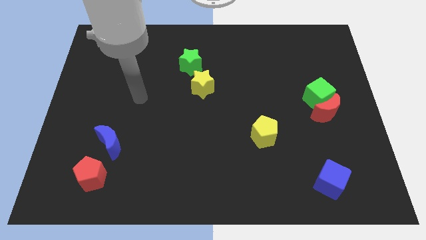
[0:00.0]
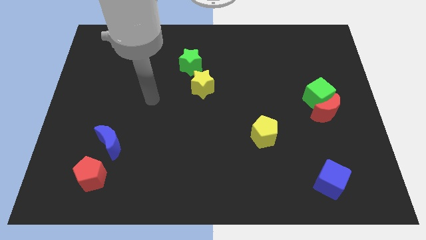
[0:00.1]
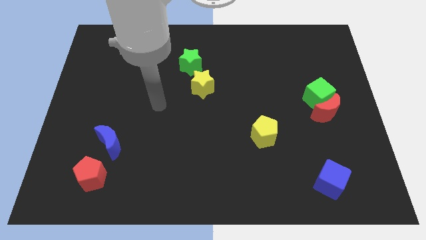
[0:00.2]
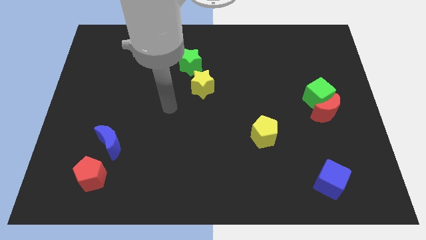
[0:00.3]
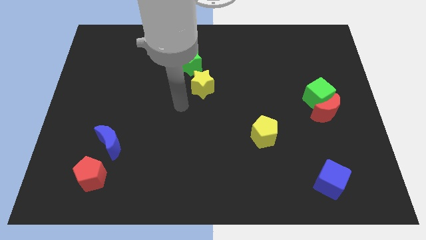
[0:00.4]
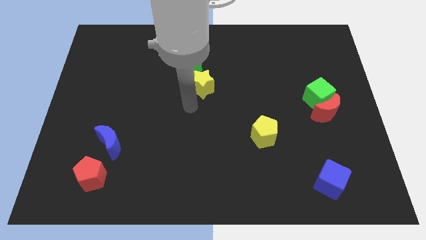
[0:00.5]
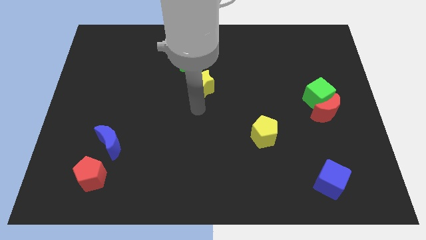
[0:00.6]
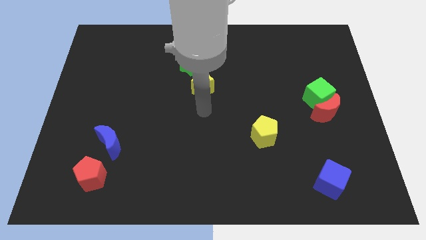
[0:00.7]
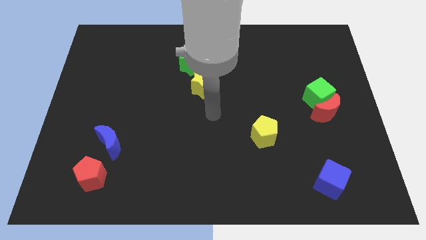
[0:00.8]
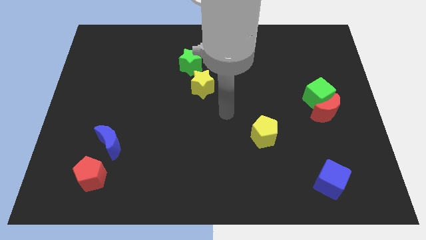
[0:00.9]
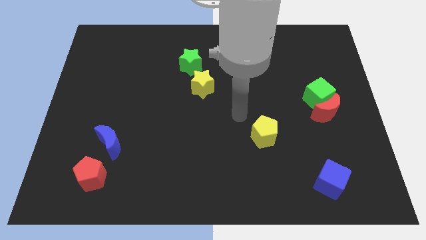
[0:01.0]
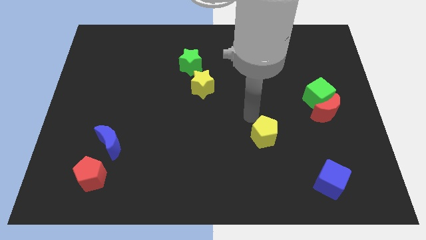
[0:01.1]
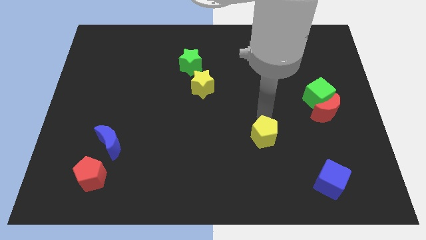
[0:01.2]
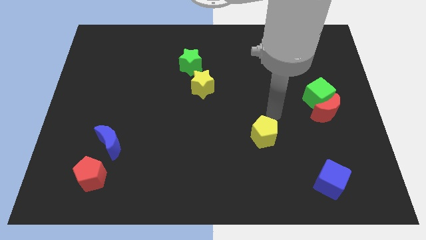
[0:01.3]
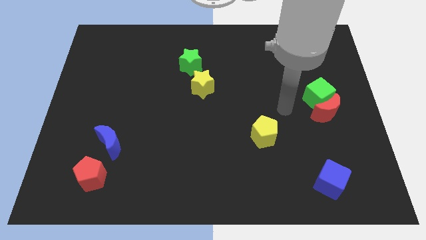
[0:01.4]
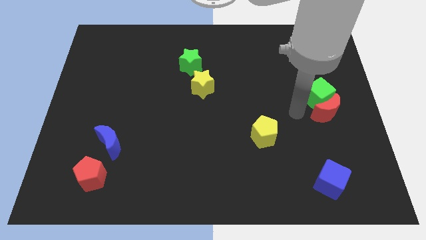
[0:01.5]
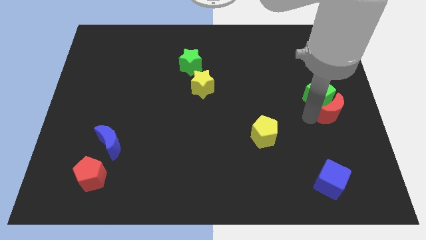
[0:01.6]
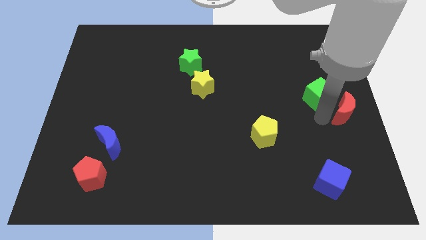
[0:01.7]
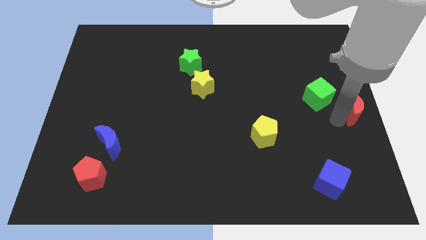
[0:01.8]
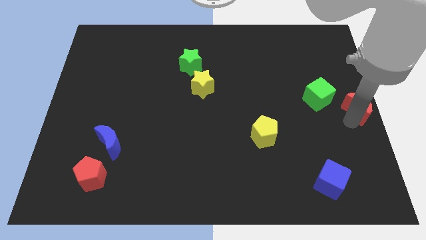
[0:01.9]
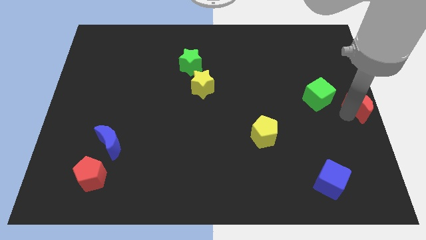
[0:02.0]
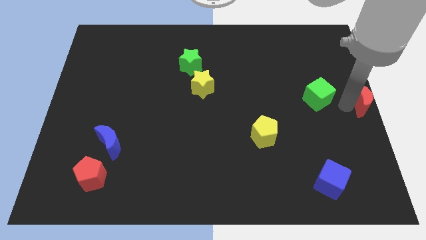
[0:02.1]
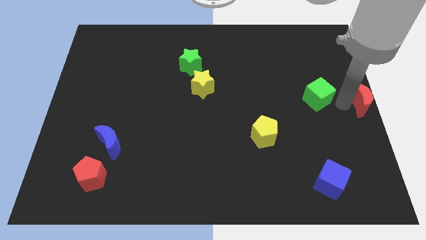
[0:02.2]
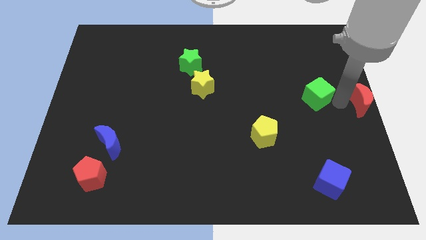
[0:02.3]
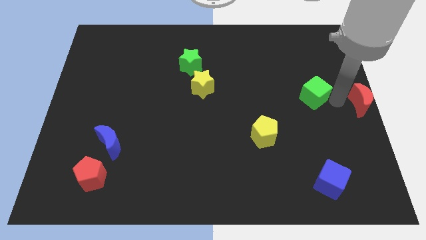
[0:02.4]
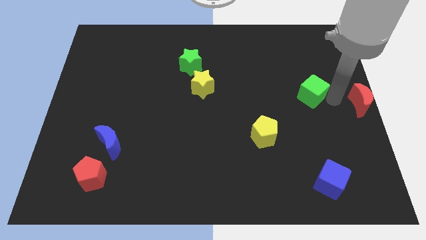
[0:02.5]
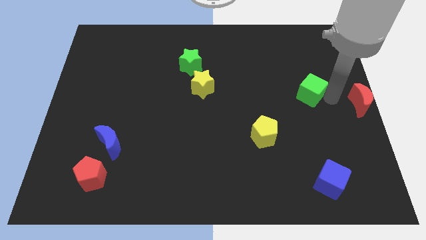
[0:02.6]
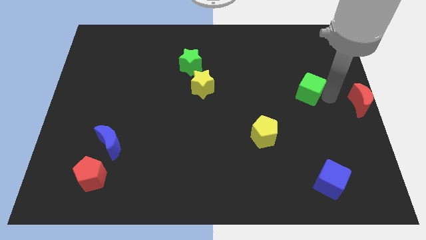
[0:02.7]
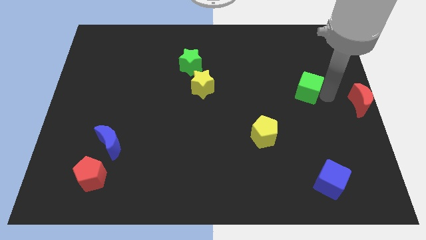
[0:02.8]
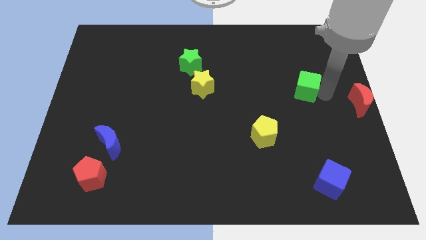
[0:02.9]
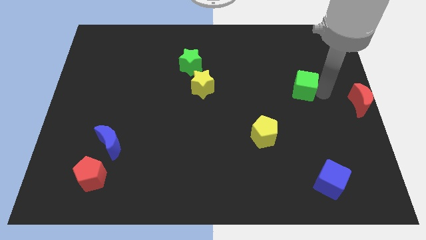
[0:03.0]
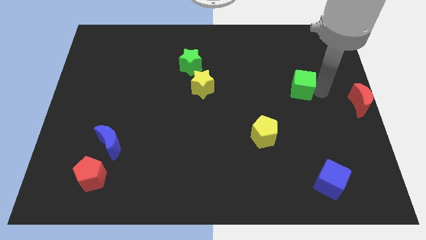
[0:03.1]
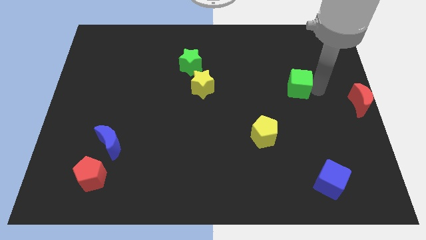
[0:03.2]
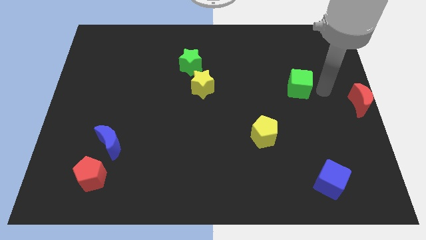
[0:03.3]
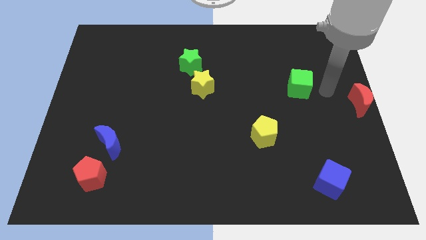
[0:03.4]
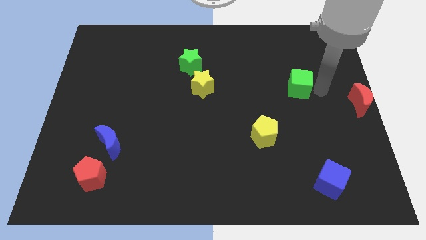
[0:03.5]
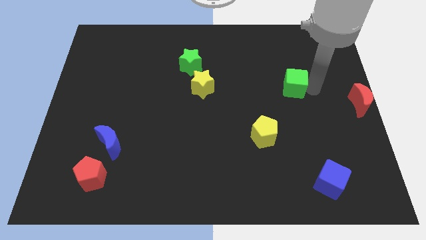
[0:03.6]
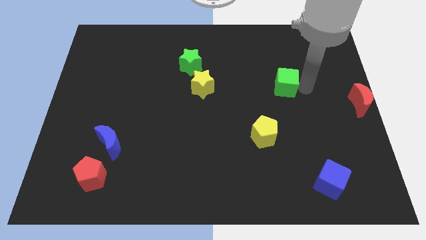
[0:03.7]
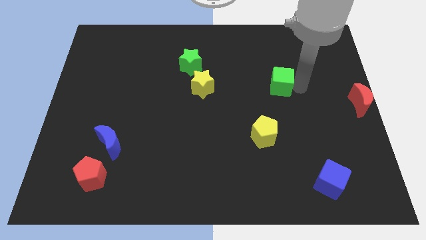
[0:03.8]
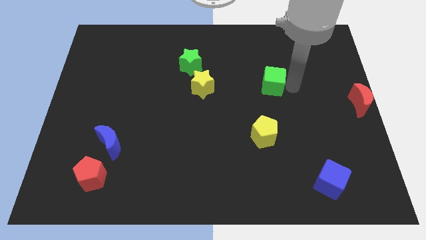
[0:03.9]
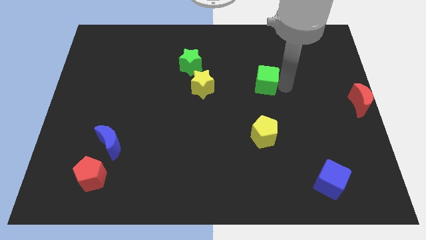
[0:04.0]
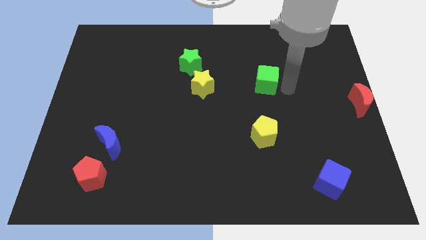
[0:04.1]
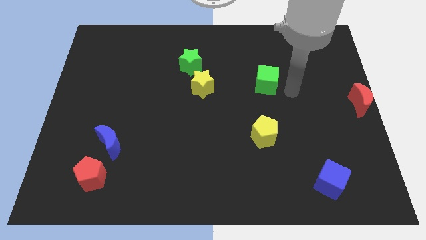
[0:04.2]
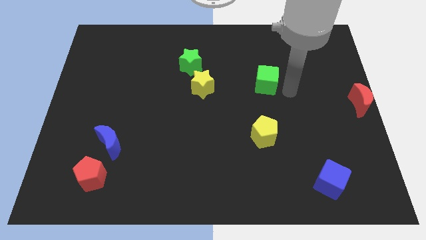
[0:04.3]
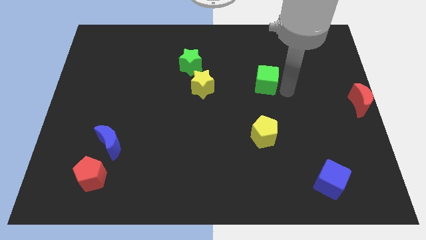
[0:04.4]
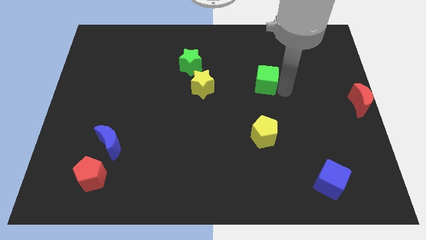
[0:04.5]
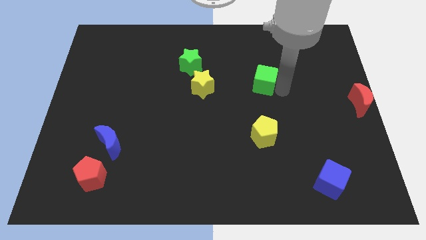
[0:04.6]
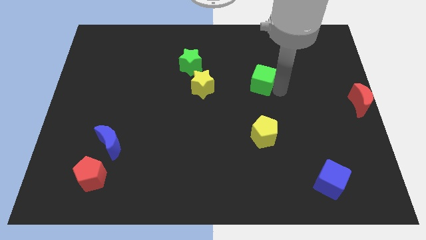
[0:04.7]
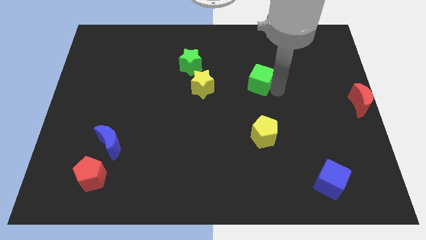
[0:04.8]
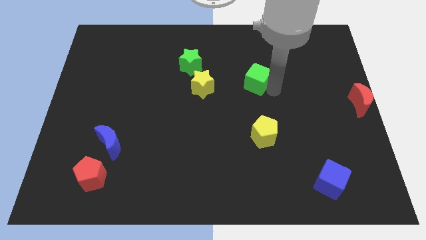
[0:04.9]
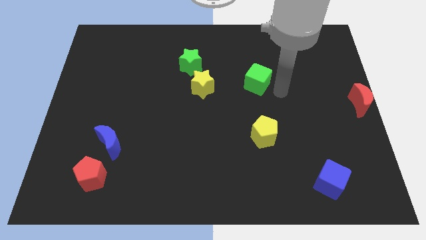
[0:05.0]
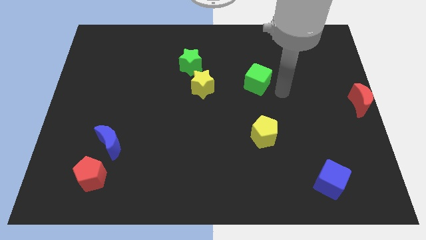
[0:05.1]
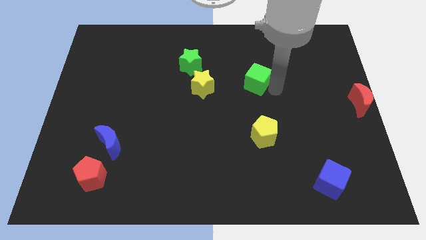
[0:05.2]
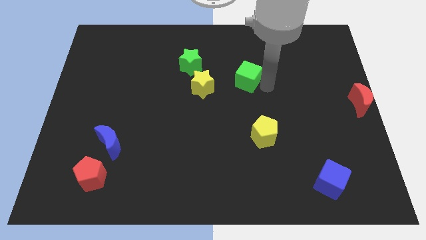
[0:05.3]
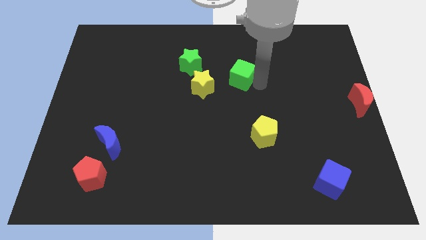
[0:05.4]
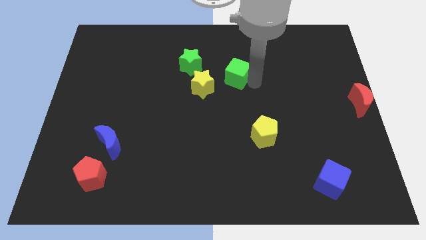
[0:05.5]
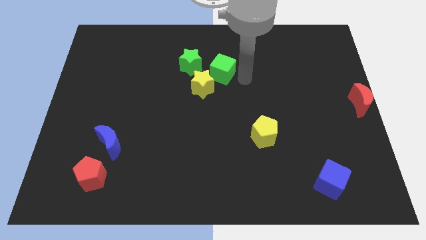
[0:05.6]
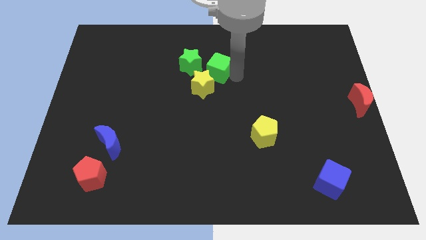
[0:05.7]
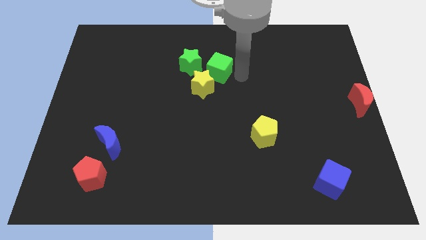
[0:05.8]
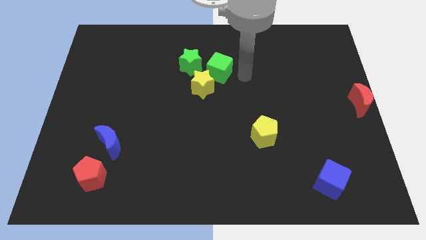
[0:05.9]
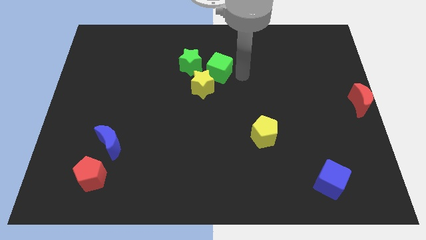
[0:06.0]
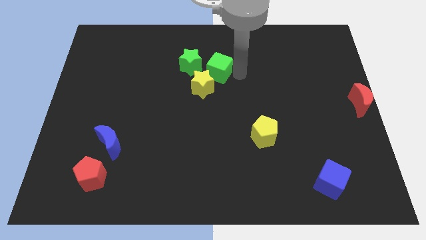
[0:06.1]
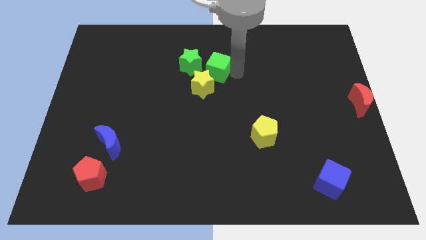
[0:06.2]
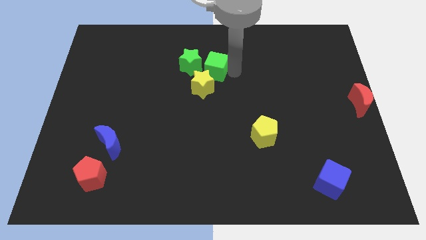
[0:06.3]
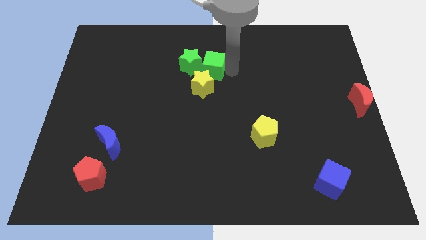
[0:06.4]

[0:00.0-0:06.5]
slide the green cube to the green star

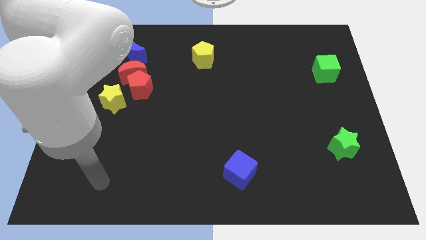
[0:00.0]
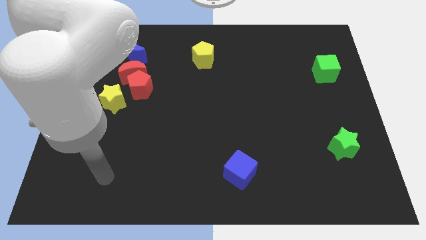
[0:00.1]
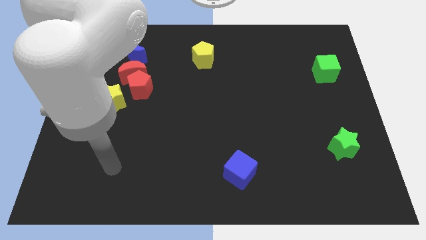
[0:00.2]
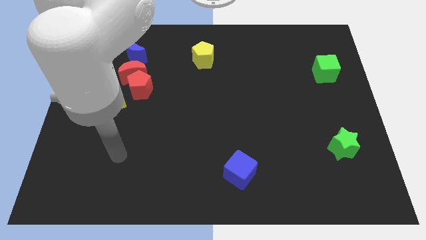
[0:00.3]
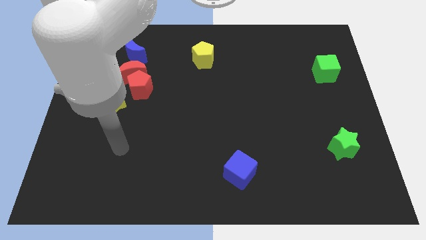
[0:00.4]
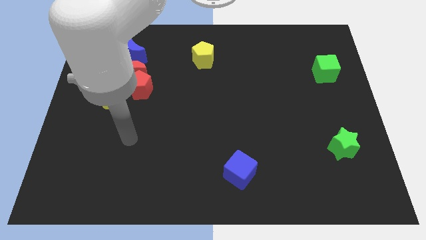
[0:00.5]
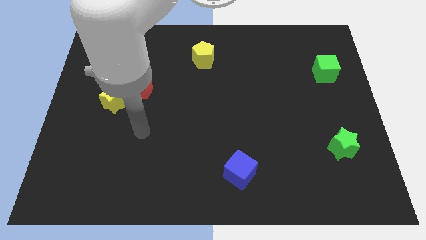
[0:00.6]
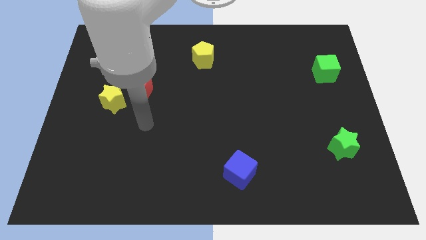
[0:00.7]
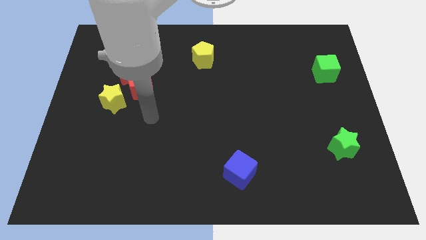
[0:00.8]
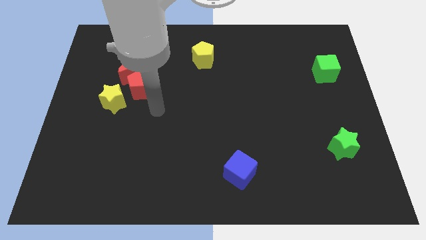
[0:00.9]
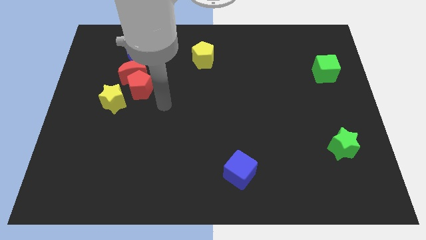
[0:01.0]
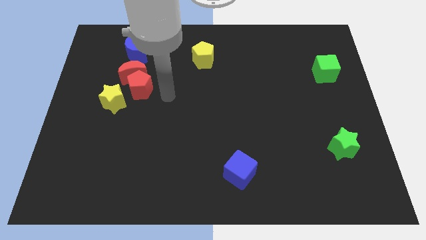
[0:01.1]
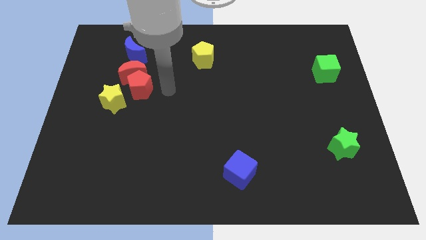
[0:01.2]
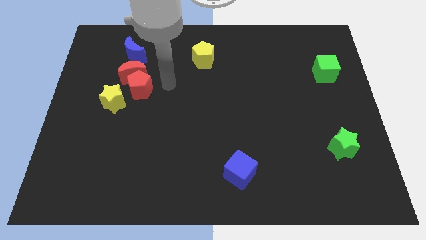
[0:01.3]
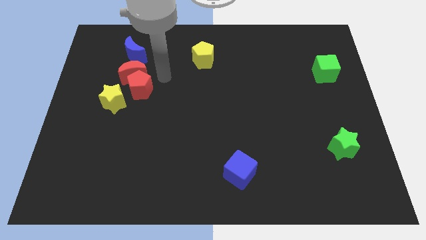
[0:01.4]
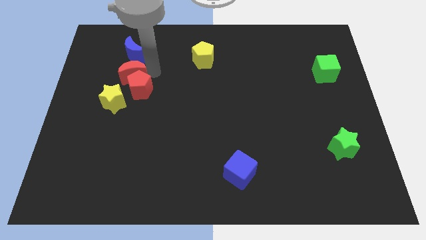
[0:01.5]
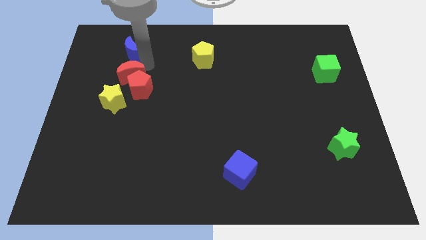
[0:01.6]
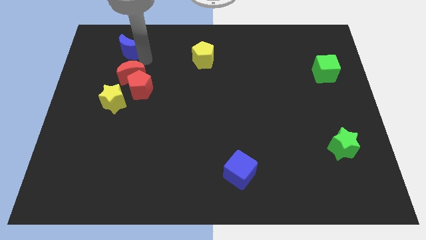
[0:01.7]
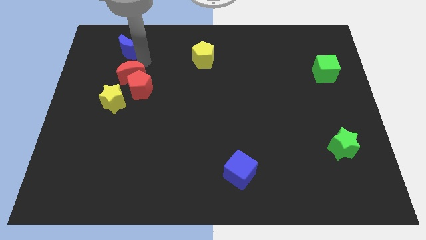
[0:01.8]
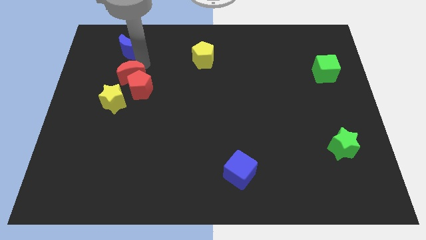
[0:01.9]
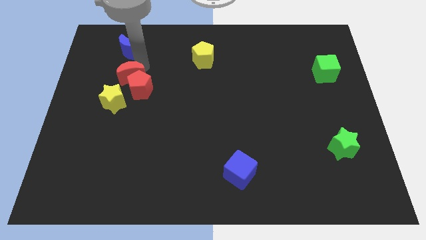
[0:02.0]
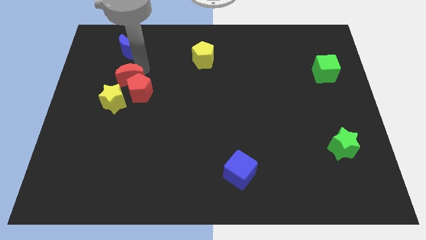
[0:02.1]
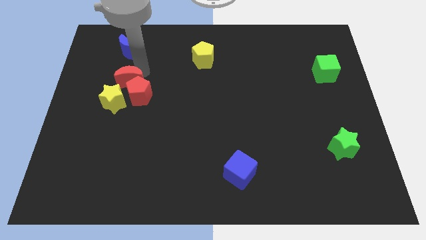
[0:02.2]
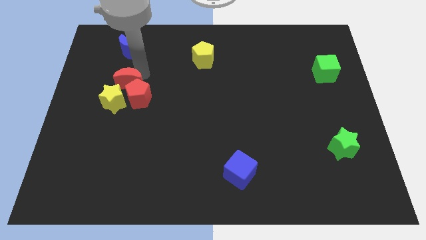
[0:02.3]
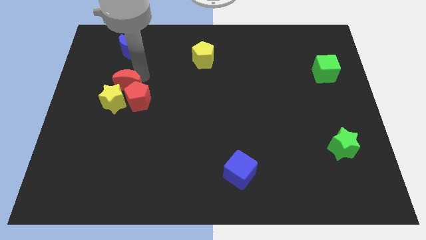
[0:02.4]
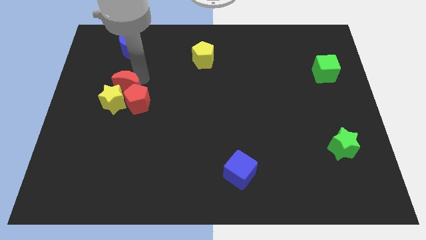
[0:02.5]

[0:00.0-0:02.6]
put the red moon towards the yellow star
